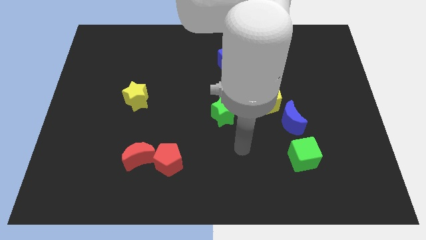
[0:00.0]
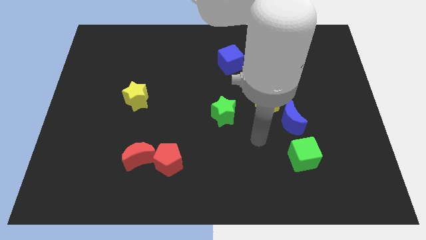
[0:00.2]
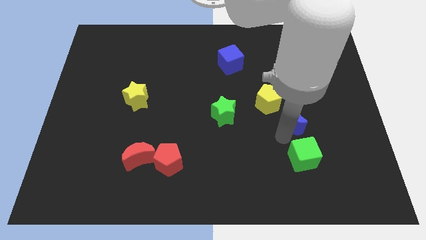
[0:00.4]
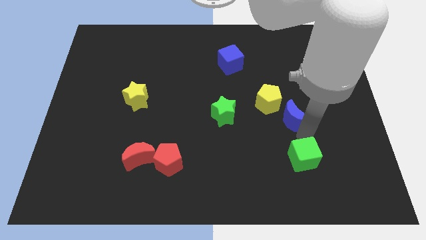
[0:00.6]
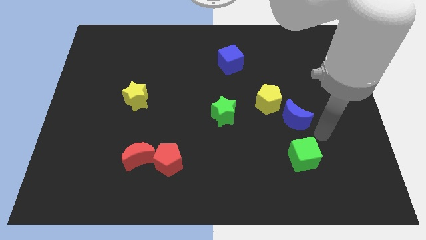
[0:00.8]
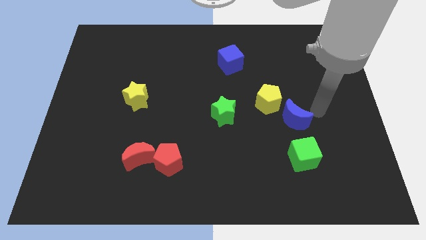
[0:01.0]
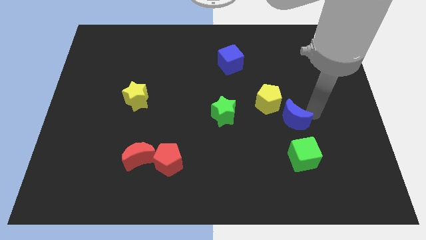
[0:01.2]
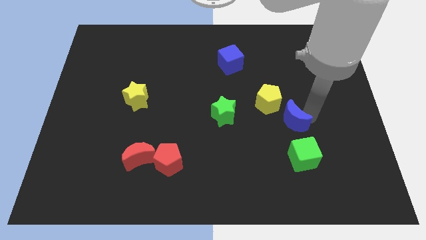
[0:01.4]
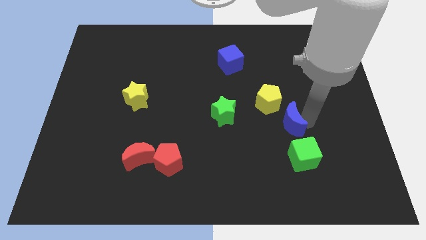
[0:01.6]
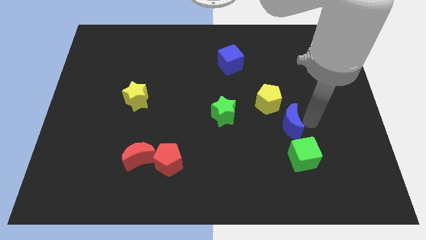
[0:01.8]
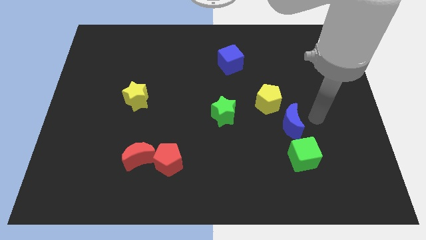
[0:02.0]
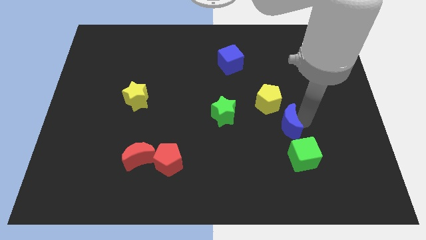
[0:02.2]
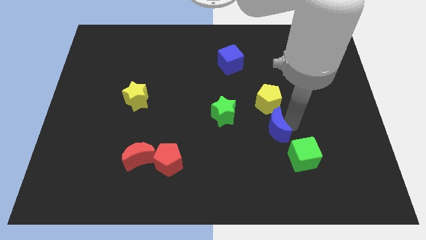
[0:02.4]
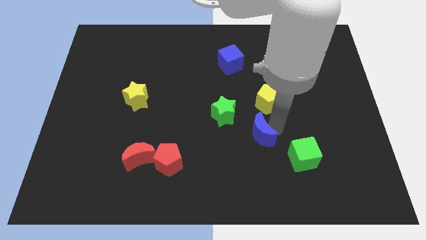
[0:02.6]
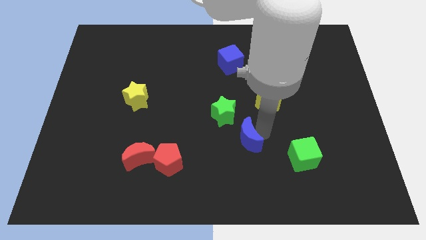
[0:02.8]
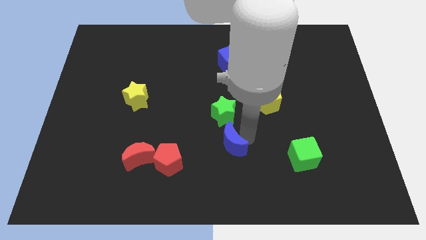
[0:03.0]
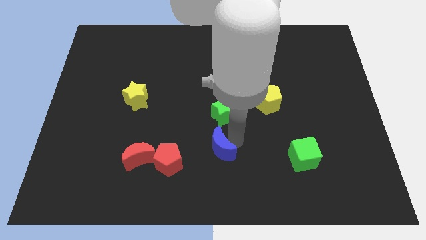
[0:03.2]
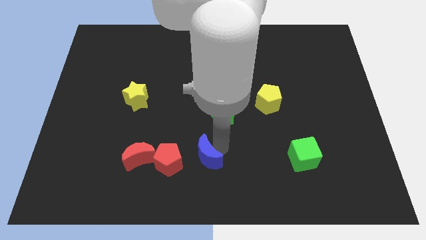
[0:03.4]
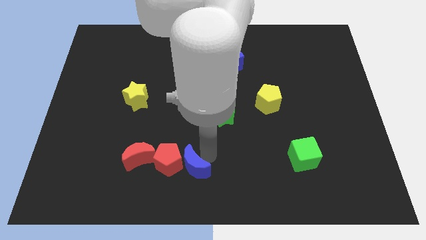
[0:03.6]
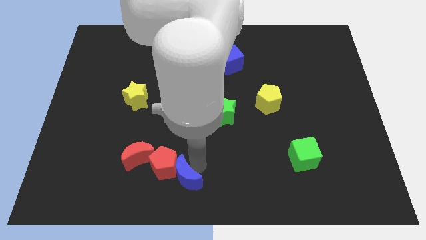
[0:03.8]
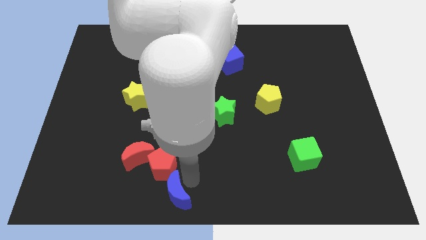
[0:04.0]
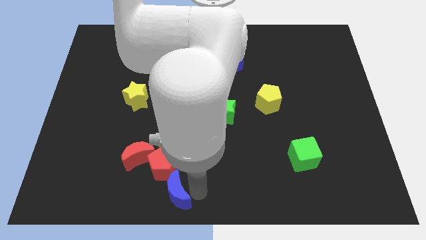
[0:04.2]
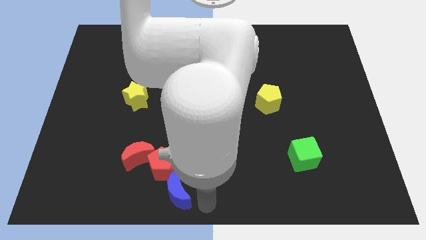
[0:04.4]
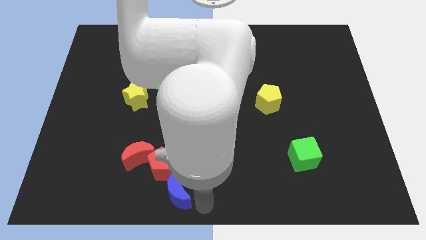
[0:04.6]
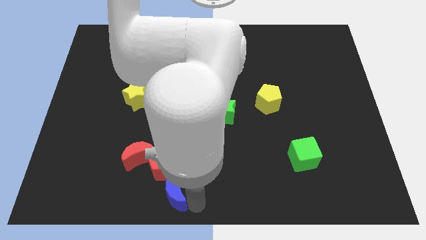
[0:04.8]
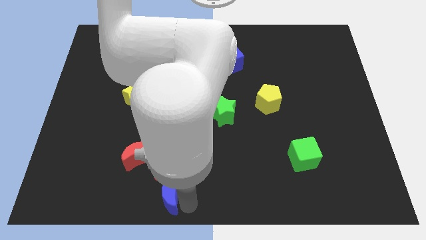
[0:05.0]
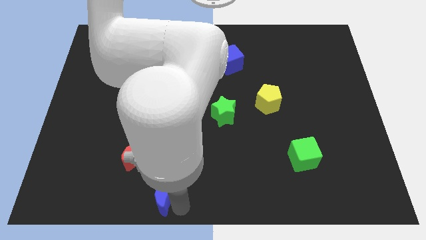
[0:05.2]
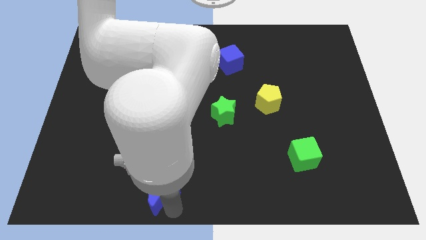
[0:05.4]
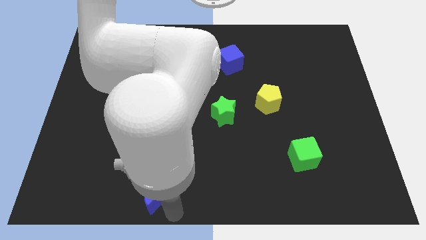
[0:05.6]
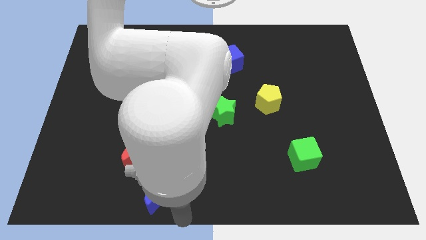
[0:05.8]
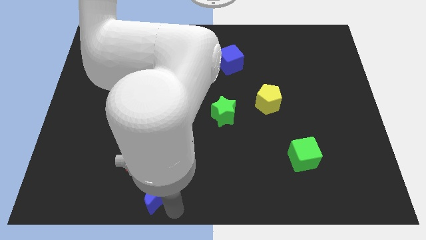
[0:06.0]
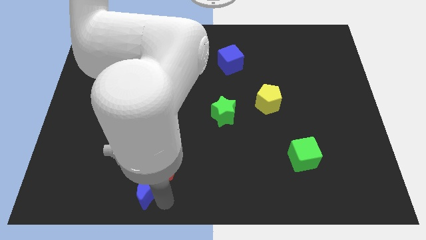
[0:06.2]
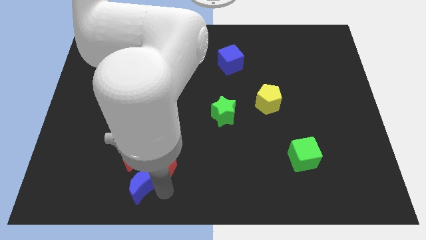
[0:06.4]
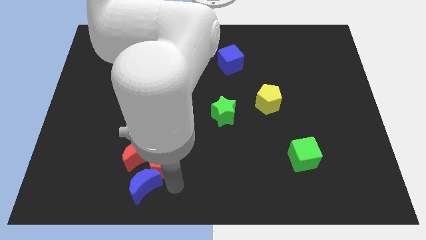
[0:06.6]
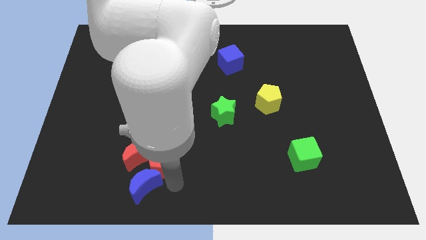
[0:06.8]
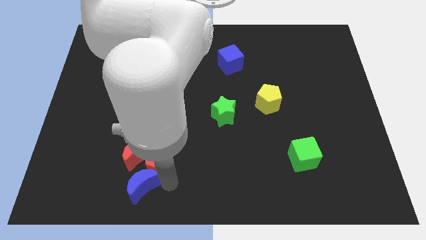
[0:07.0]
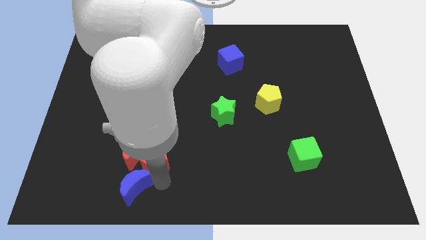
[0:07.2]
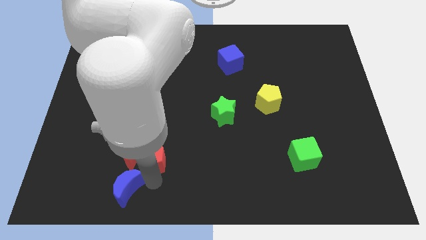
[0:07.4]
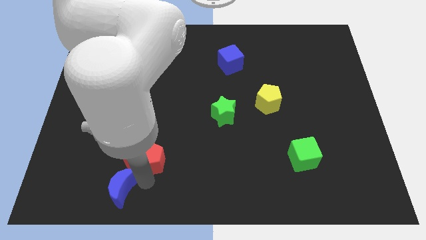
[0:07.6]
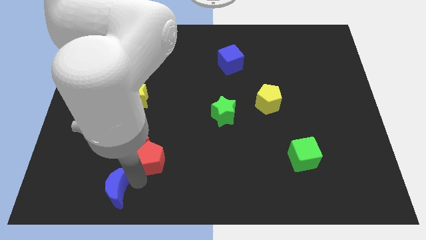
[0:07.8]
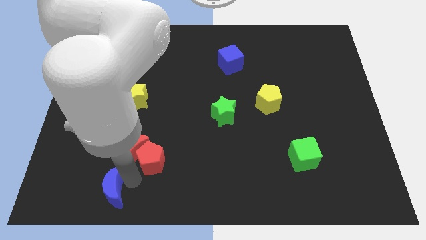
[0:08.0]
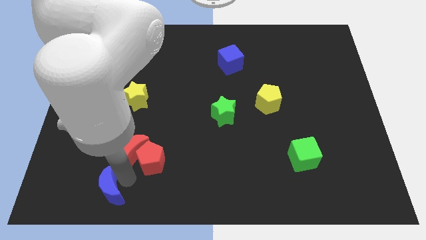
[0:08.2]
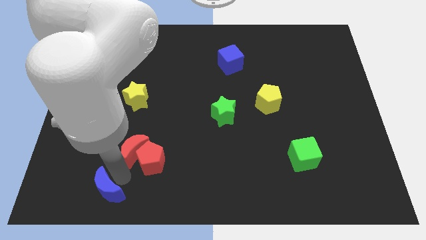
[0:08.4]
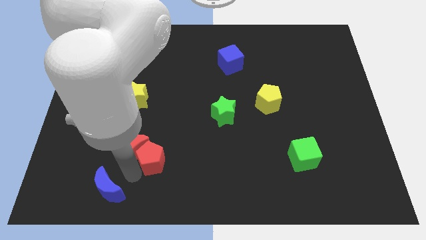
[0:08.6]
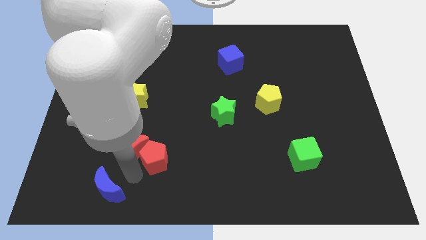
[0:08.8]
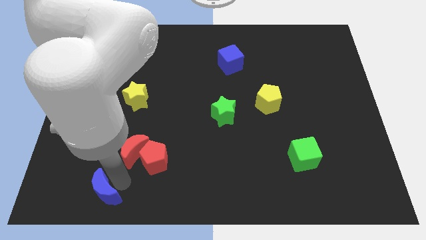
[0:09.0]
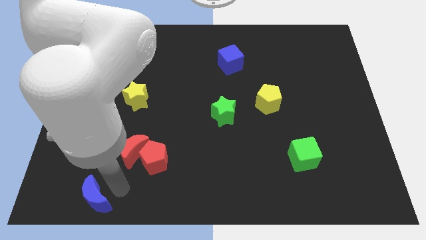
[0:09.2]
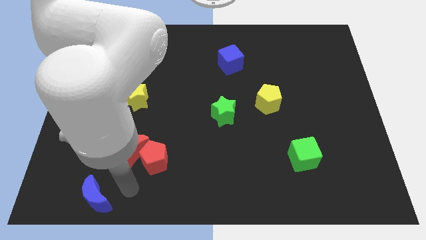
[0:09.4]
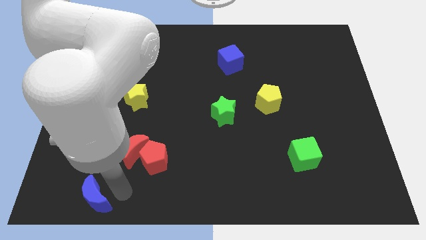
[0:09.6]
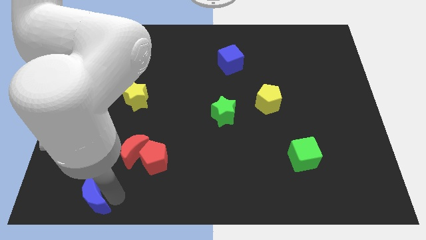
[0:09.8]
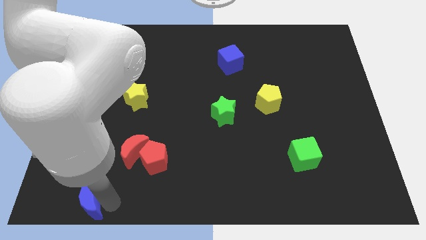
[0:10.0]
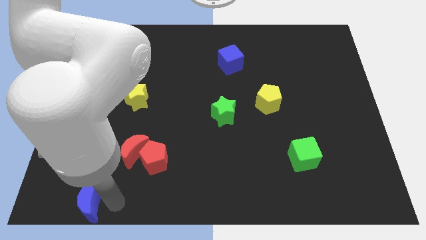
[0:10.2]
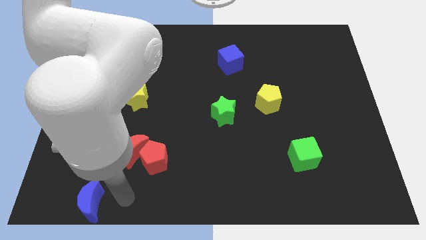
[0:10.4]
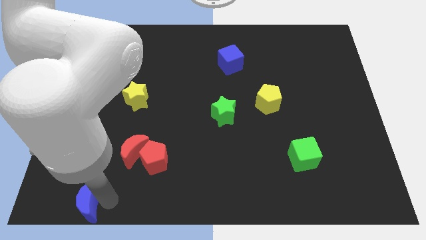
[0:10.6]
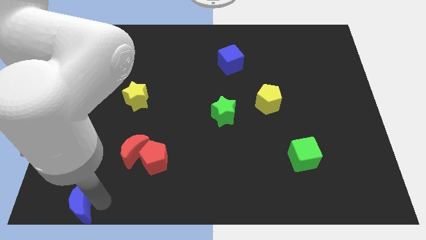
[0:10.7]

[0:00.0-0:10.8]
put the blue moon to the bottom left

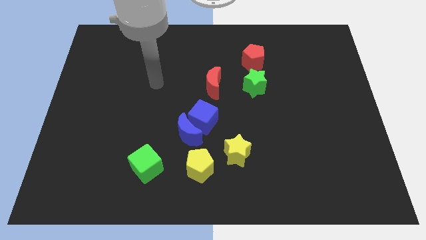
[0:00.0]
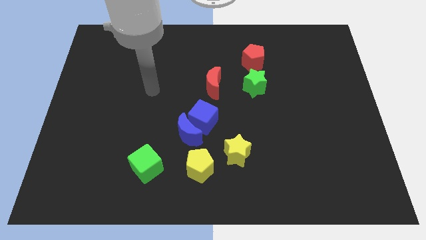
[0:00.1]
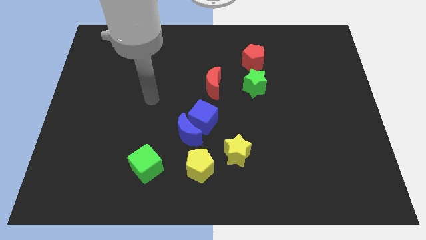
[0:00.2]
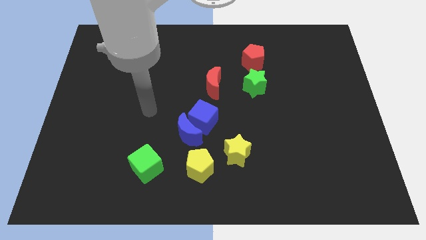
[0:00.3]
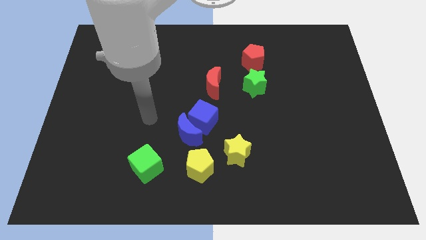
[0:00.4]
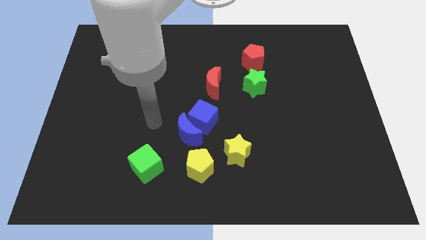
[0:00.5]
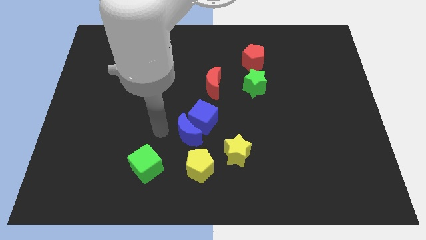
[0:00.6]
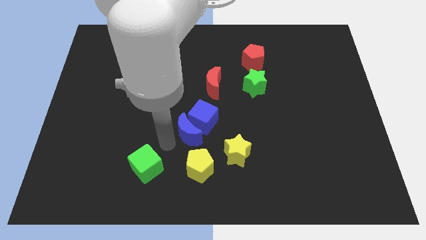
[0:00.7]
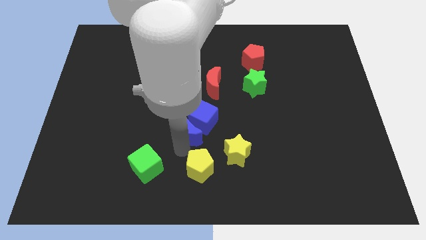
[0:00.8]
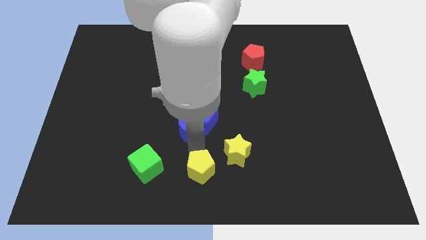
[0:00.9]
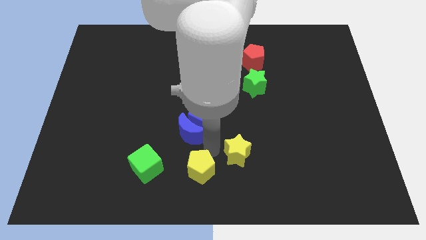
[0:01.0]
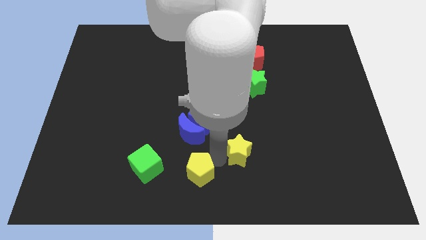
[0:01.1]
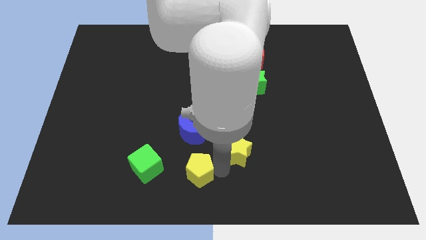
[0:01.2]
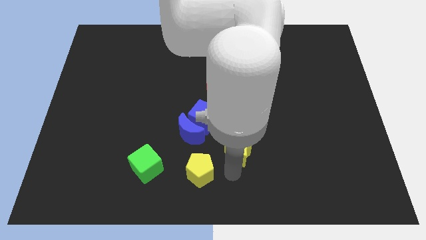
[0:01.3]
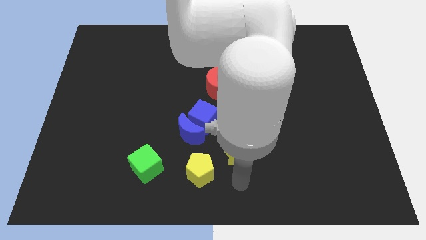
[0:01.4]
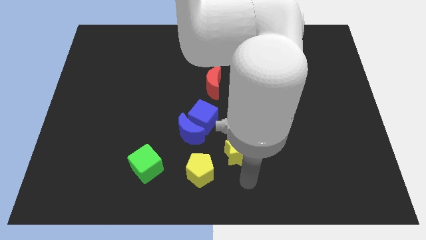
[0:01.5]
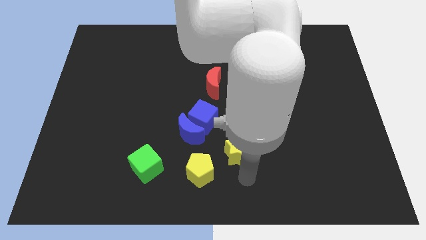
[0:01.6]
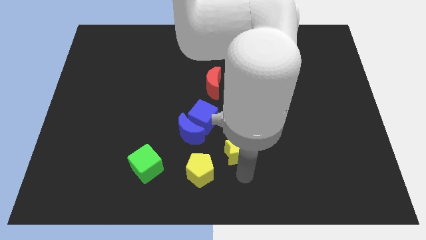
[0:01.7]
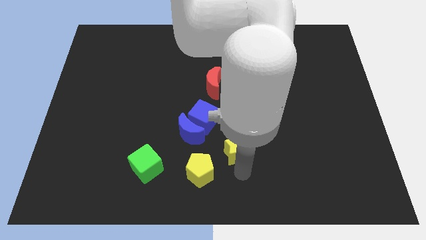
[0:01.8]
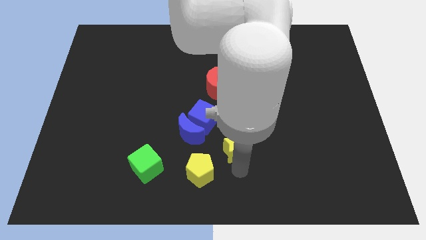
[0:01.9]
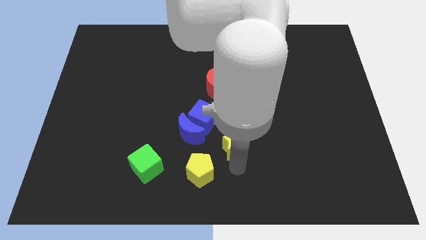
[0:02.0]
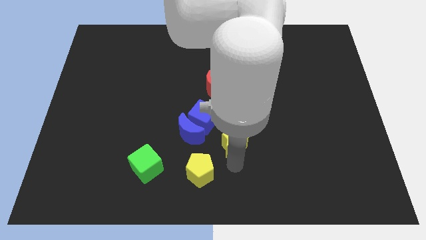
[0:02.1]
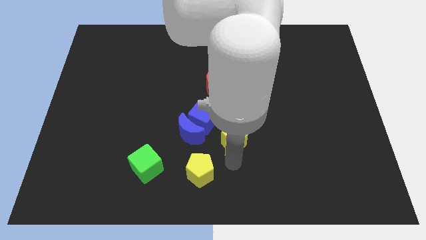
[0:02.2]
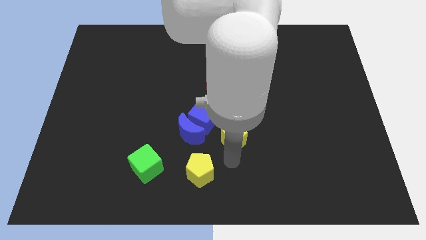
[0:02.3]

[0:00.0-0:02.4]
move the yellow star to the middle
